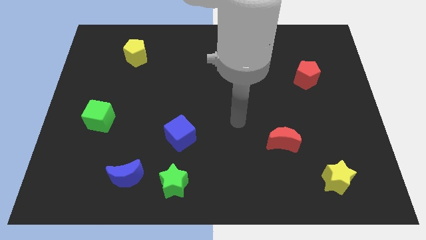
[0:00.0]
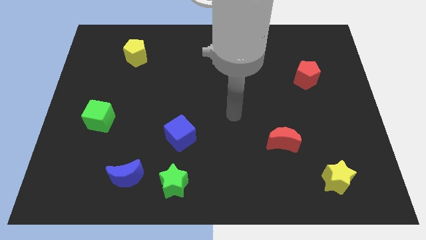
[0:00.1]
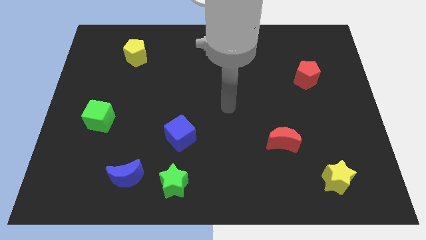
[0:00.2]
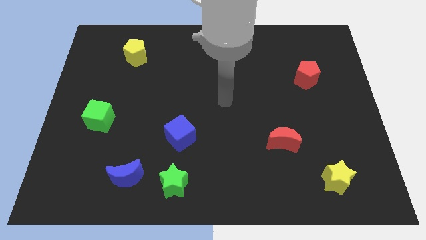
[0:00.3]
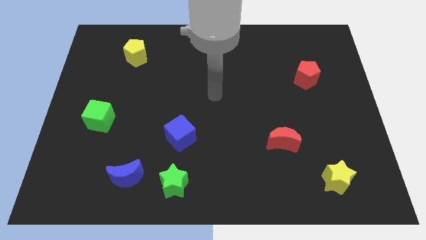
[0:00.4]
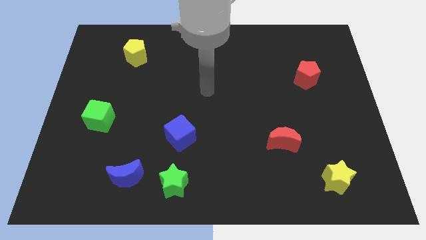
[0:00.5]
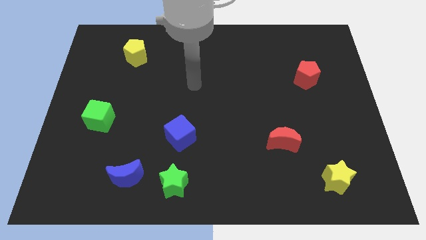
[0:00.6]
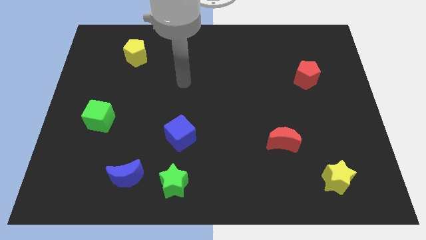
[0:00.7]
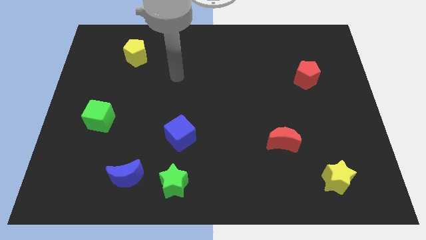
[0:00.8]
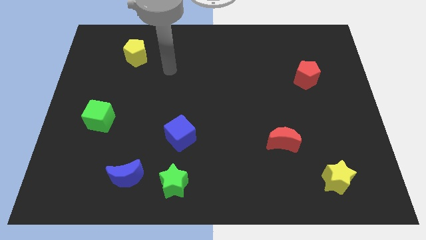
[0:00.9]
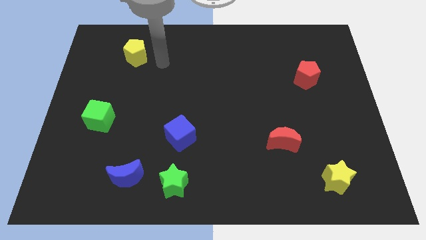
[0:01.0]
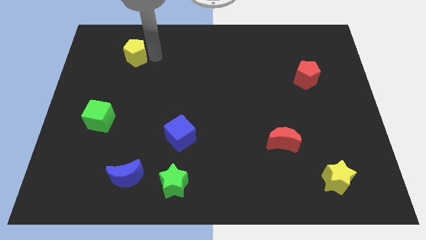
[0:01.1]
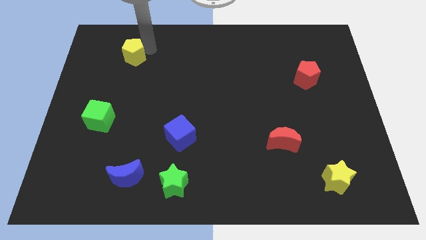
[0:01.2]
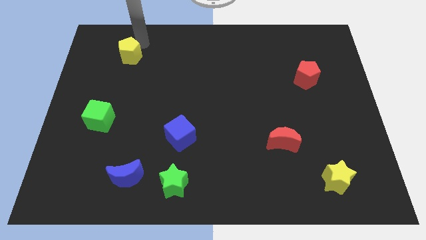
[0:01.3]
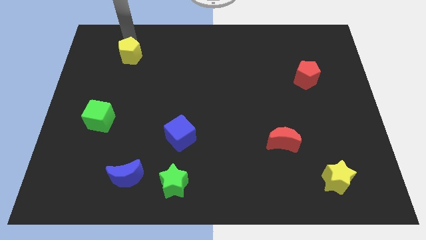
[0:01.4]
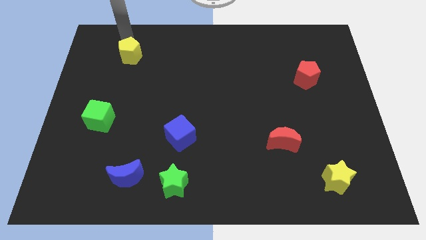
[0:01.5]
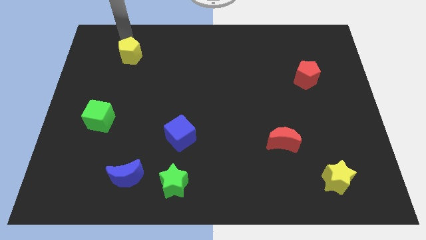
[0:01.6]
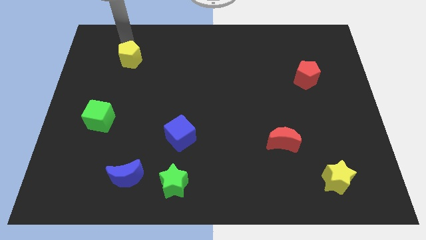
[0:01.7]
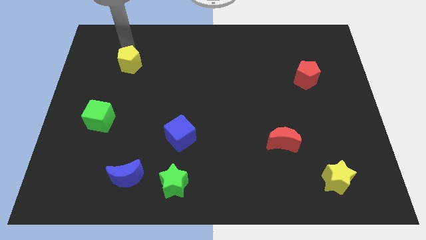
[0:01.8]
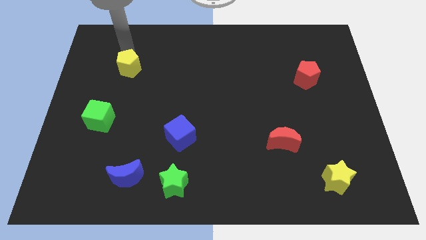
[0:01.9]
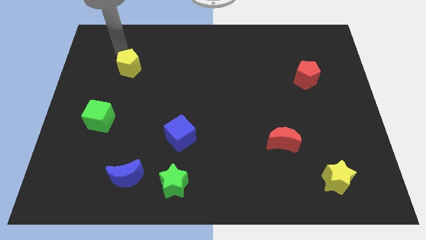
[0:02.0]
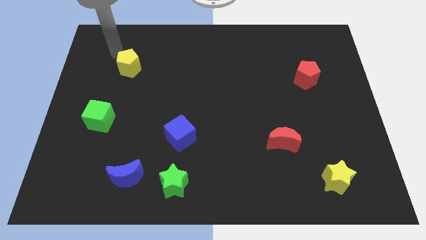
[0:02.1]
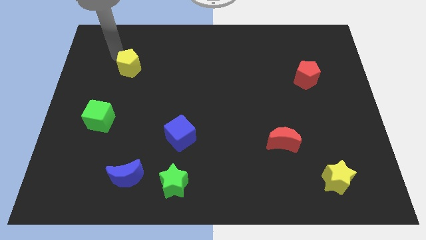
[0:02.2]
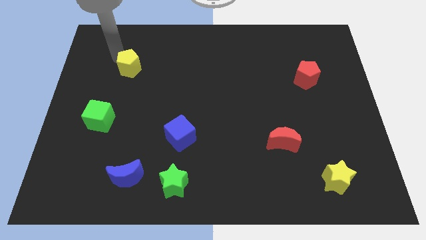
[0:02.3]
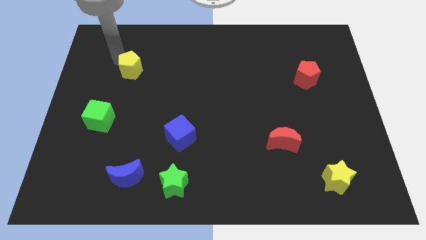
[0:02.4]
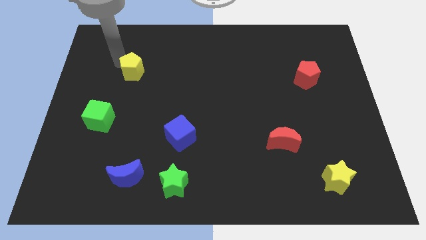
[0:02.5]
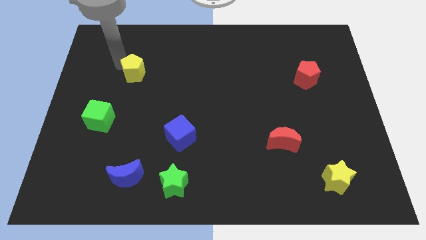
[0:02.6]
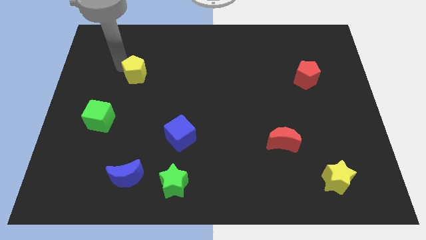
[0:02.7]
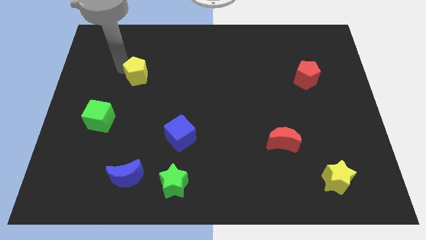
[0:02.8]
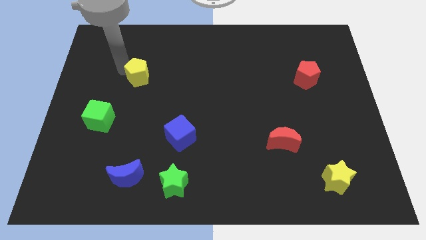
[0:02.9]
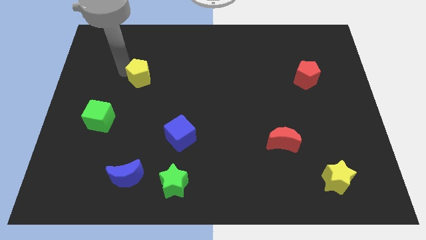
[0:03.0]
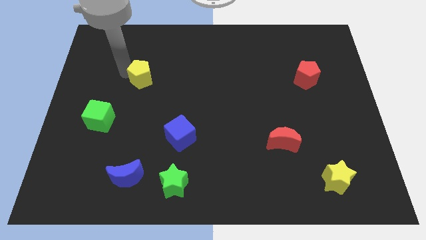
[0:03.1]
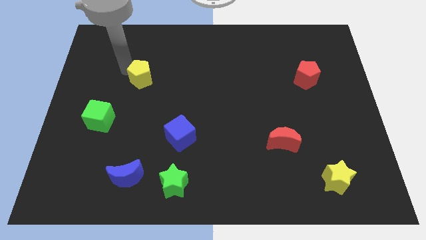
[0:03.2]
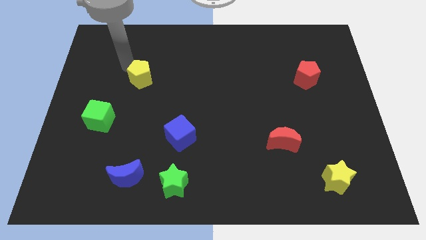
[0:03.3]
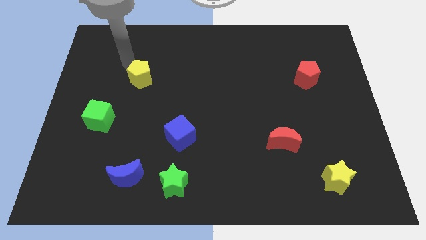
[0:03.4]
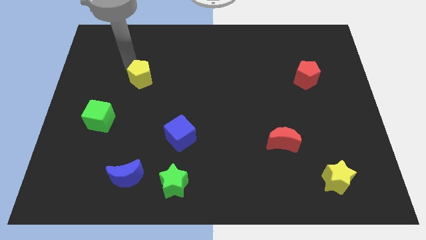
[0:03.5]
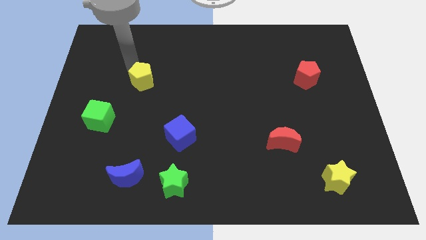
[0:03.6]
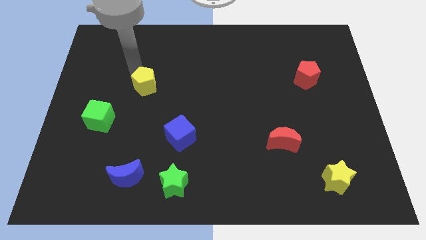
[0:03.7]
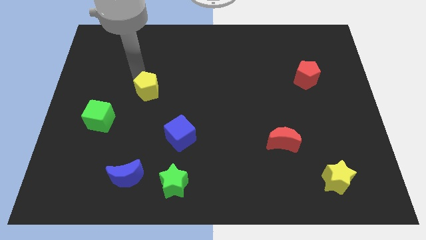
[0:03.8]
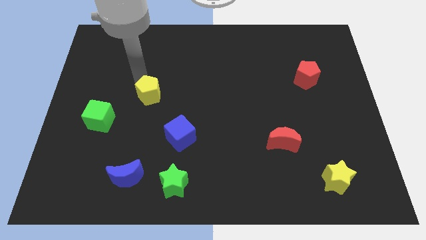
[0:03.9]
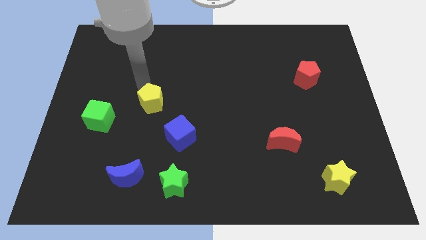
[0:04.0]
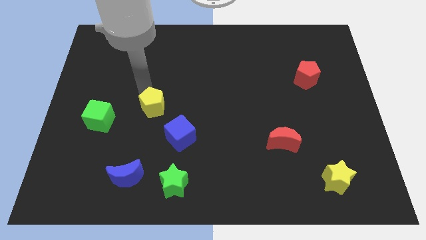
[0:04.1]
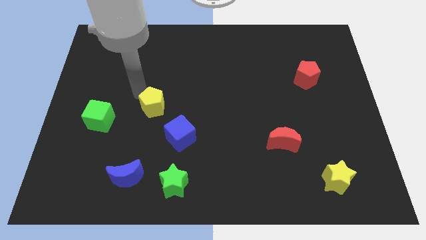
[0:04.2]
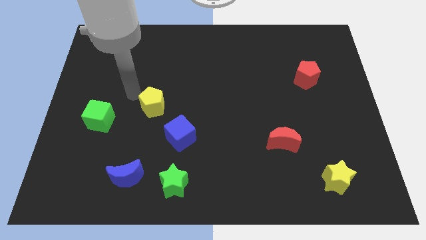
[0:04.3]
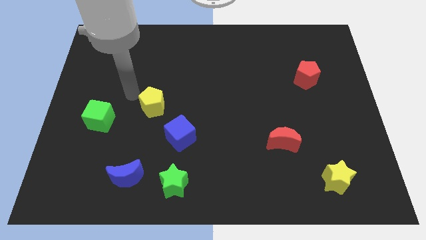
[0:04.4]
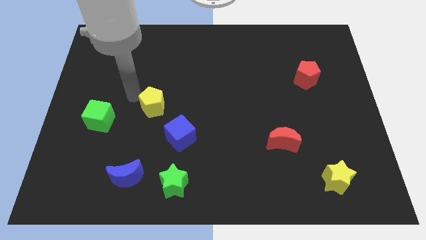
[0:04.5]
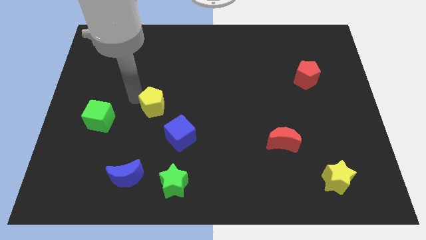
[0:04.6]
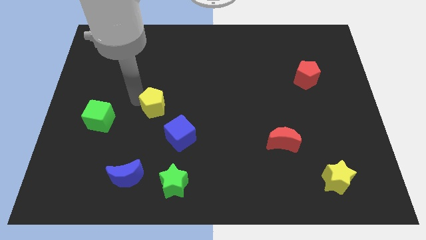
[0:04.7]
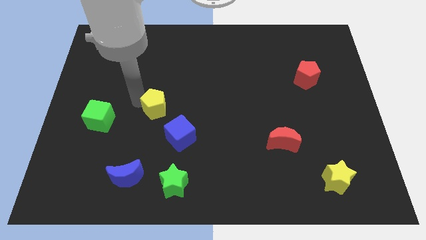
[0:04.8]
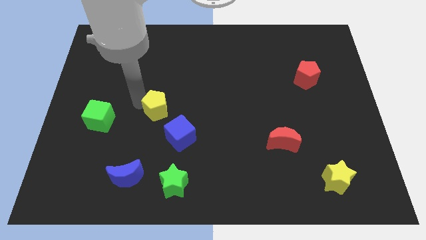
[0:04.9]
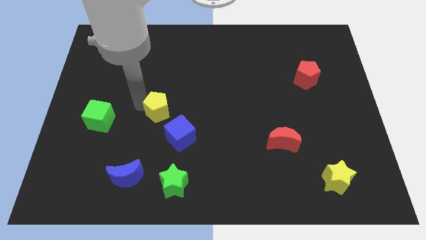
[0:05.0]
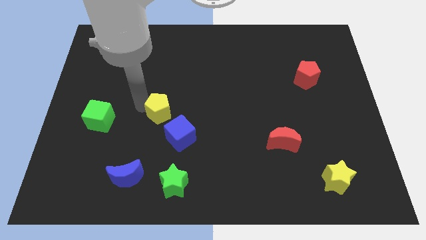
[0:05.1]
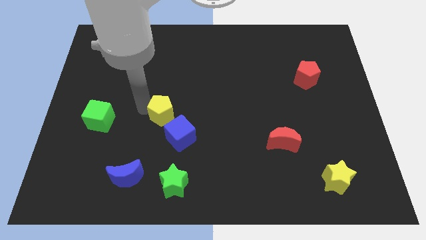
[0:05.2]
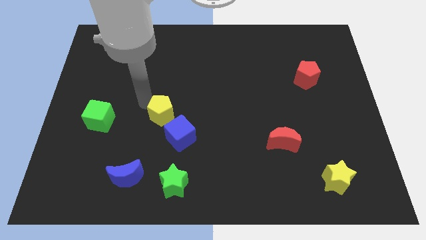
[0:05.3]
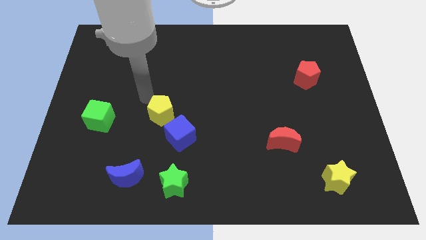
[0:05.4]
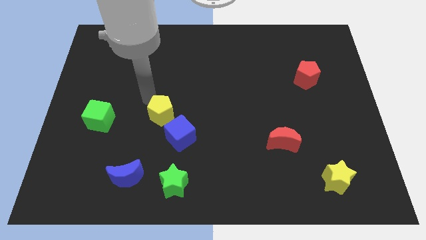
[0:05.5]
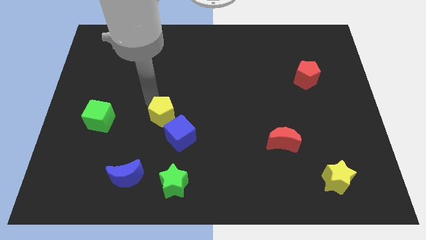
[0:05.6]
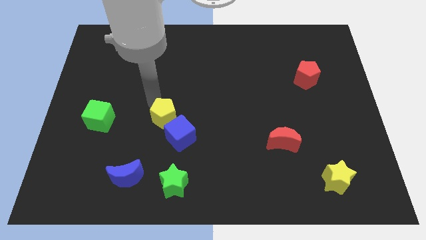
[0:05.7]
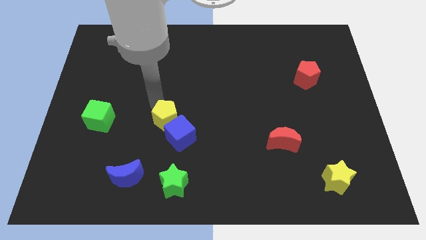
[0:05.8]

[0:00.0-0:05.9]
slide the yellow pentagon to the blue cube

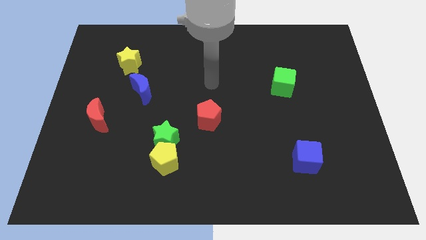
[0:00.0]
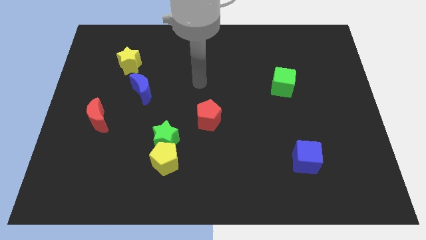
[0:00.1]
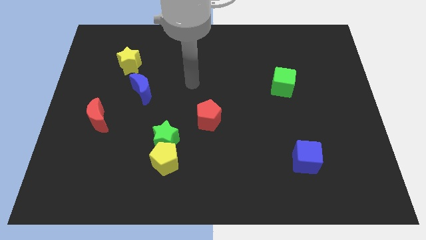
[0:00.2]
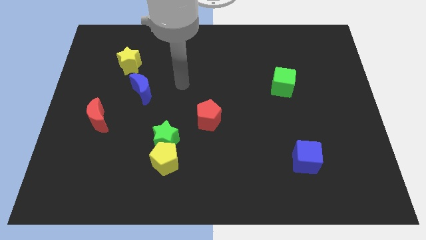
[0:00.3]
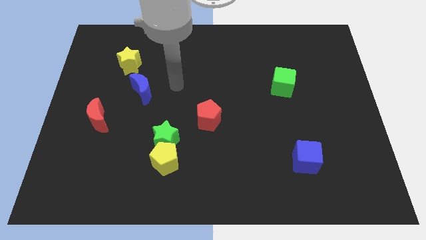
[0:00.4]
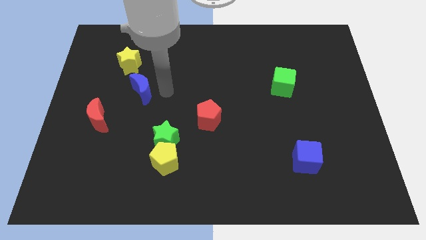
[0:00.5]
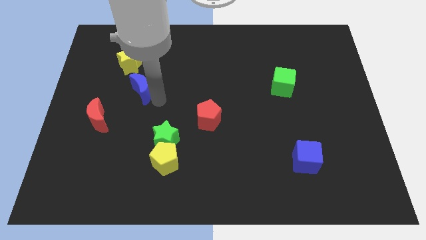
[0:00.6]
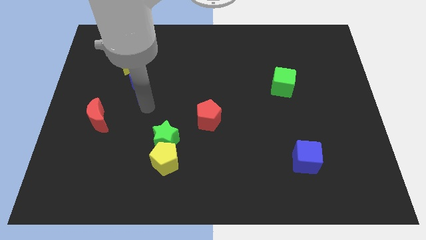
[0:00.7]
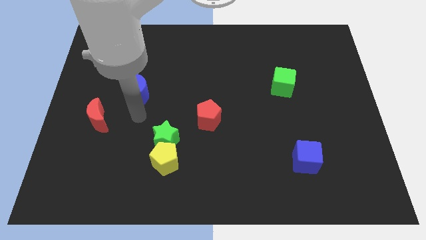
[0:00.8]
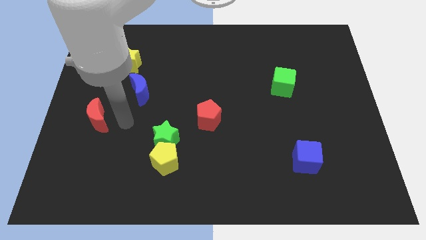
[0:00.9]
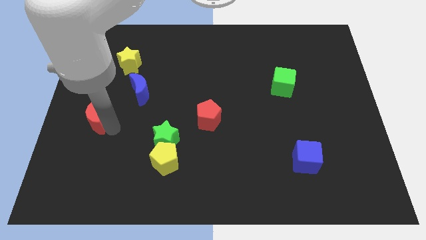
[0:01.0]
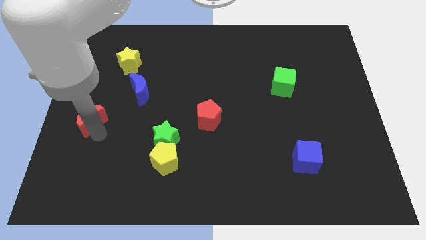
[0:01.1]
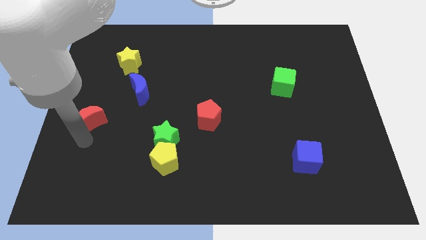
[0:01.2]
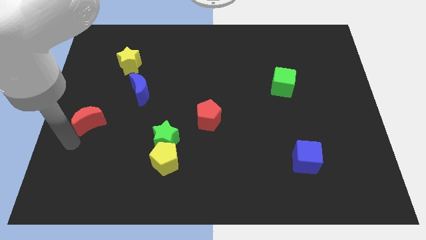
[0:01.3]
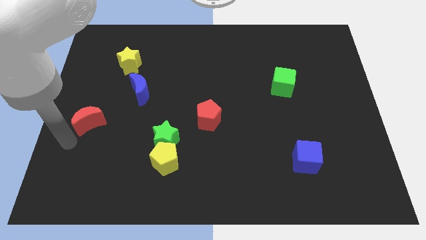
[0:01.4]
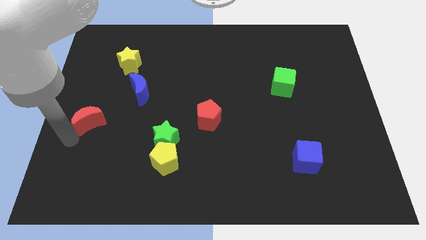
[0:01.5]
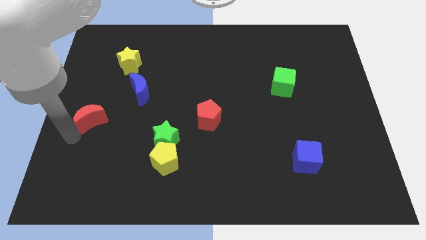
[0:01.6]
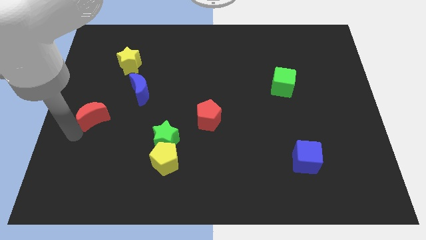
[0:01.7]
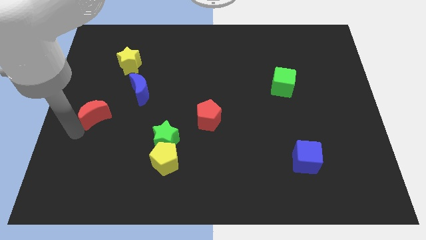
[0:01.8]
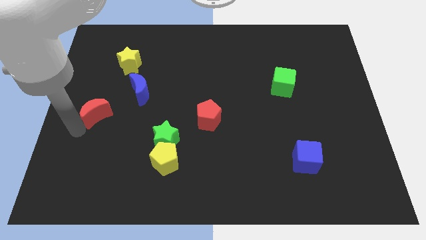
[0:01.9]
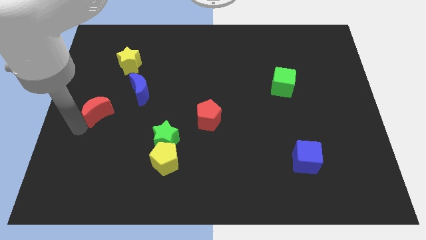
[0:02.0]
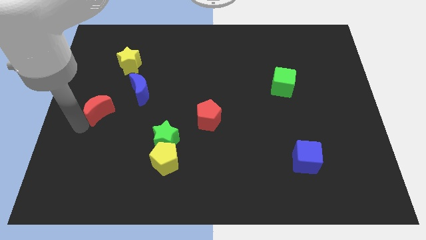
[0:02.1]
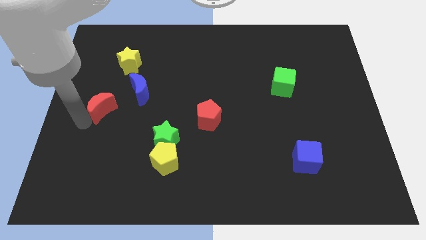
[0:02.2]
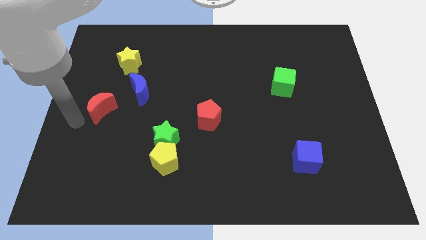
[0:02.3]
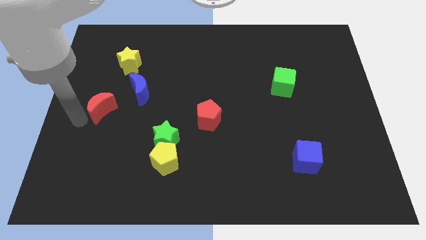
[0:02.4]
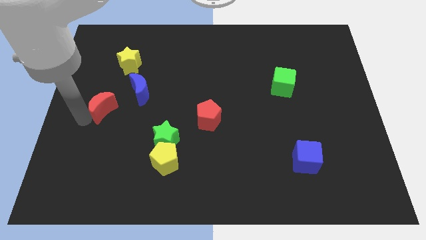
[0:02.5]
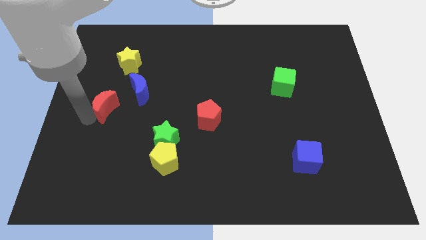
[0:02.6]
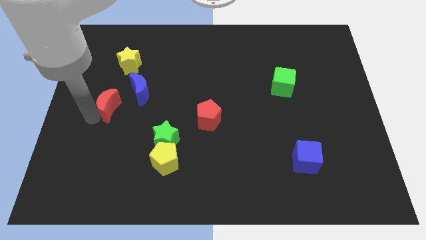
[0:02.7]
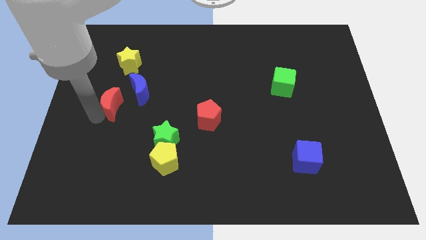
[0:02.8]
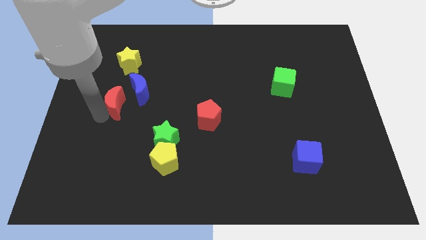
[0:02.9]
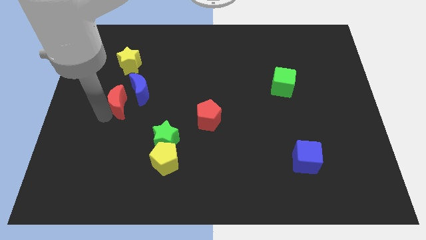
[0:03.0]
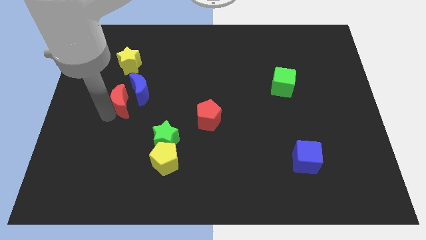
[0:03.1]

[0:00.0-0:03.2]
push the red moon towards the blue moon
